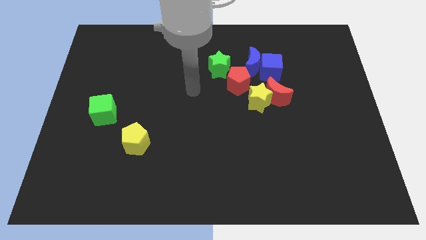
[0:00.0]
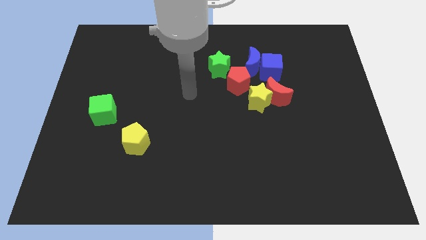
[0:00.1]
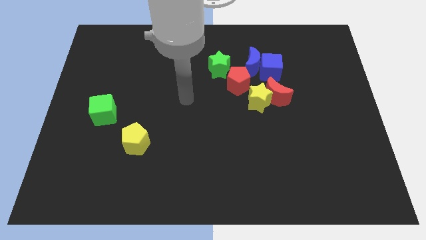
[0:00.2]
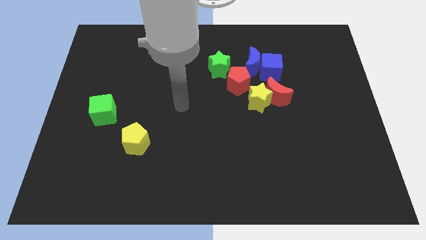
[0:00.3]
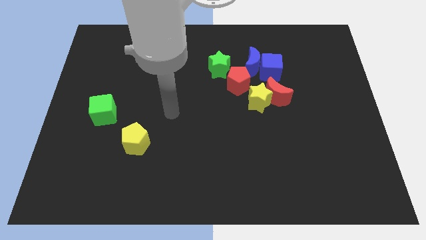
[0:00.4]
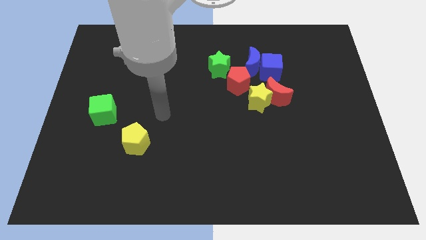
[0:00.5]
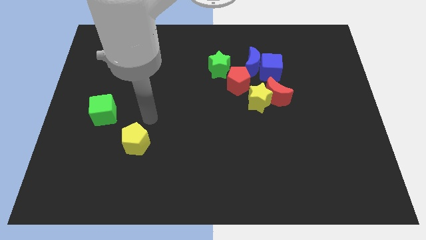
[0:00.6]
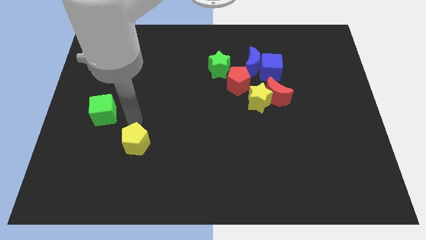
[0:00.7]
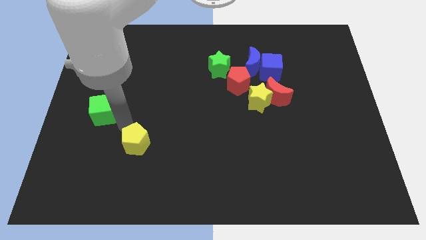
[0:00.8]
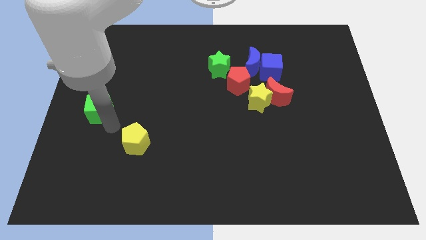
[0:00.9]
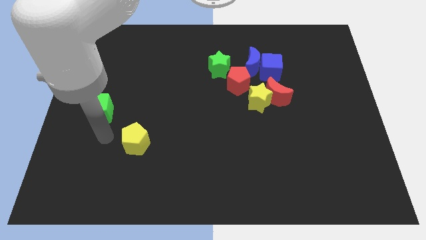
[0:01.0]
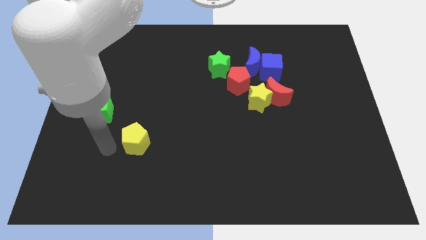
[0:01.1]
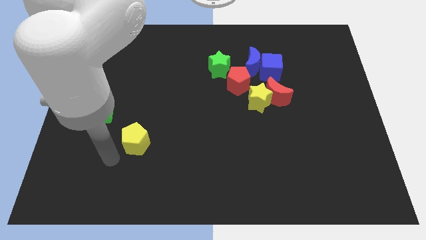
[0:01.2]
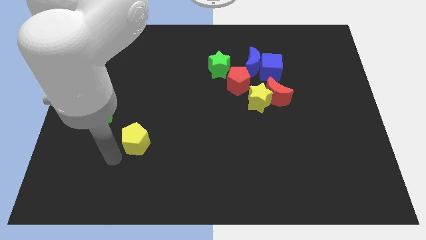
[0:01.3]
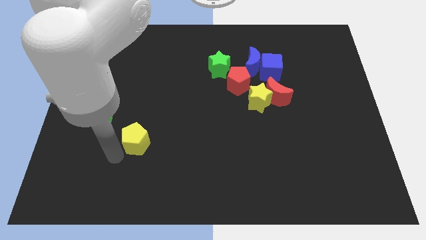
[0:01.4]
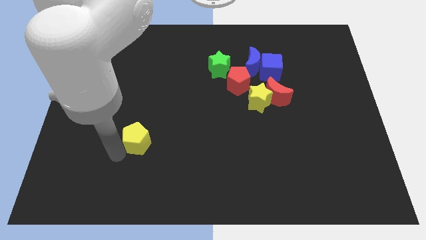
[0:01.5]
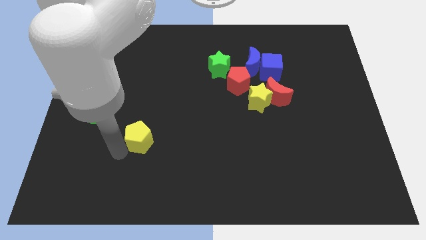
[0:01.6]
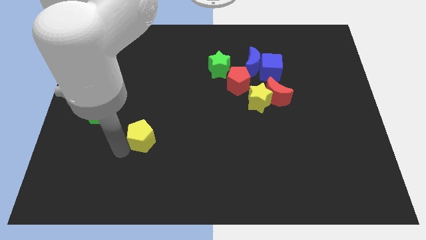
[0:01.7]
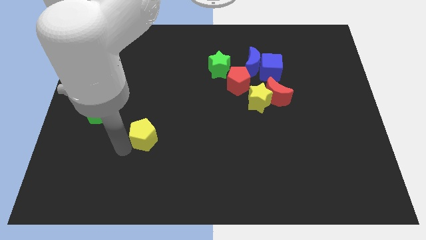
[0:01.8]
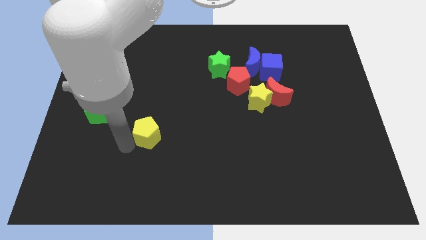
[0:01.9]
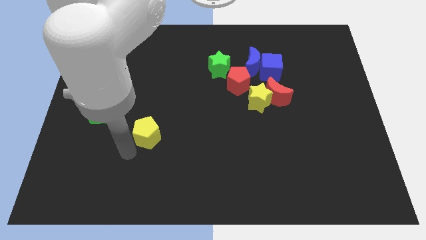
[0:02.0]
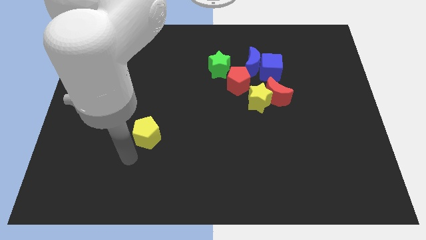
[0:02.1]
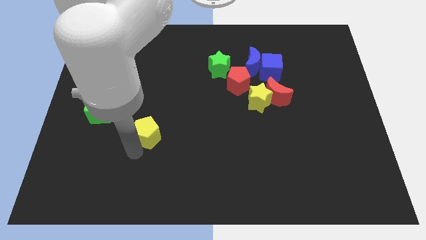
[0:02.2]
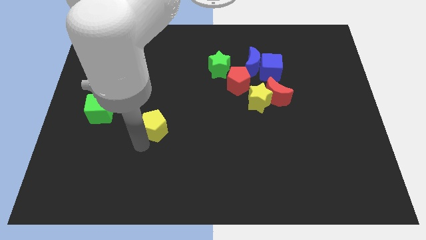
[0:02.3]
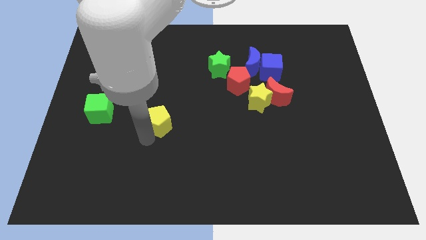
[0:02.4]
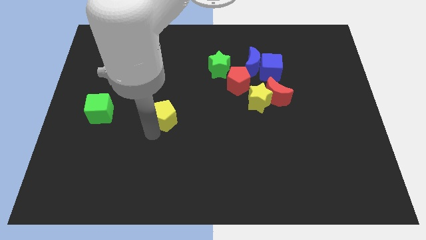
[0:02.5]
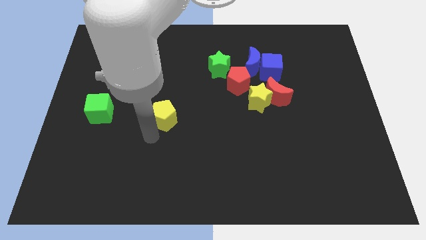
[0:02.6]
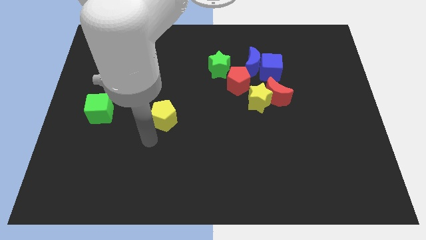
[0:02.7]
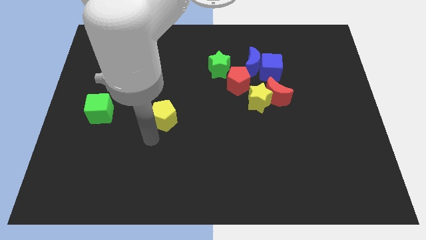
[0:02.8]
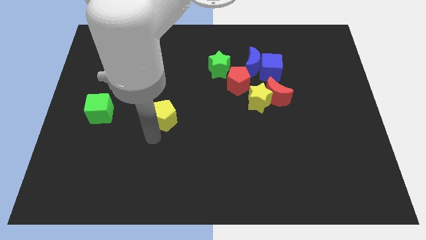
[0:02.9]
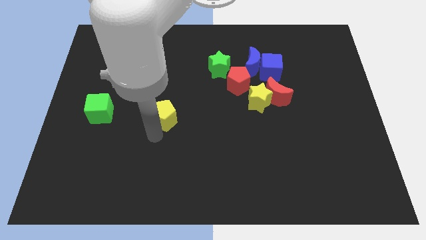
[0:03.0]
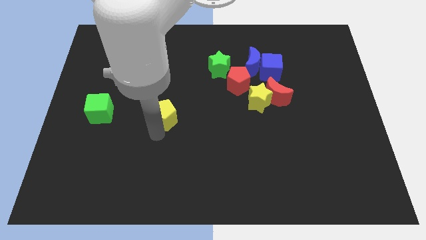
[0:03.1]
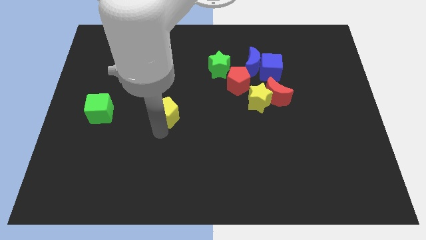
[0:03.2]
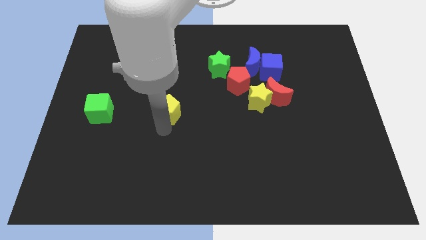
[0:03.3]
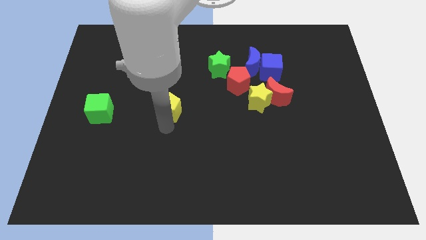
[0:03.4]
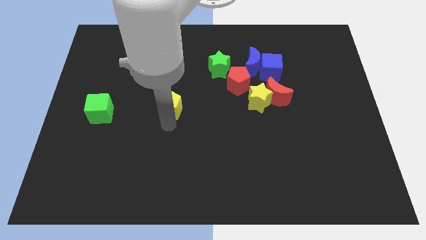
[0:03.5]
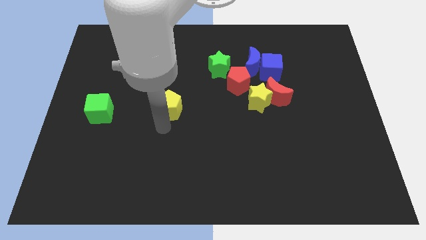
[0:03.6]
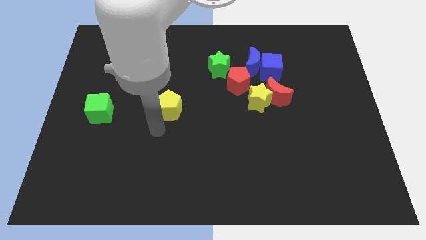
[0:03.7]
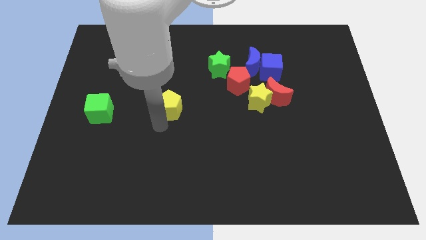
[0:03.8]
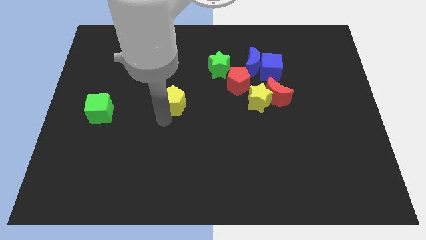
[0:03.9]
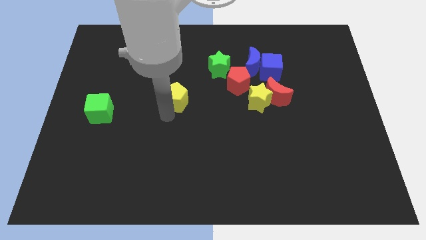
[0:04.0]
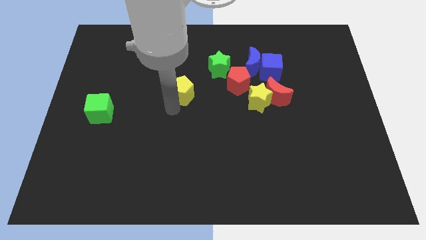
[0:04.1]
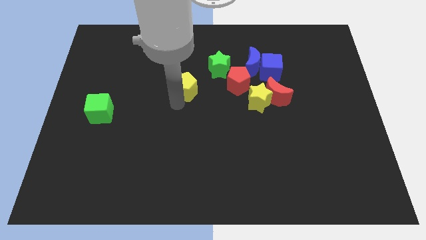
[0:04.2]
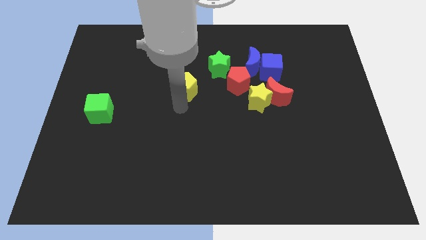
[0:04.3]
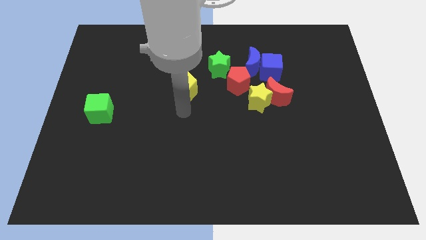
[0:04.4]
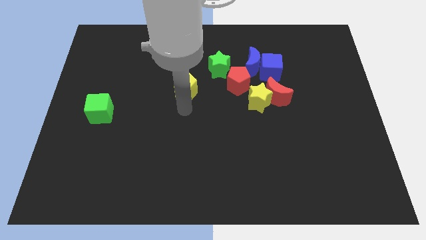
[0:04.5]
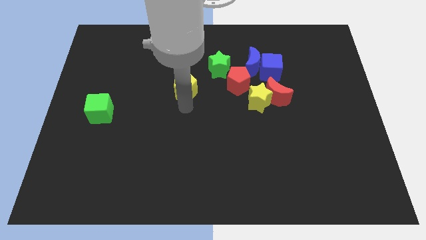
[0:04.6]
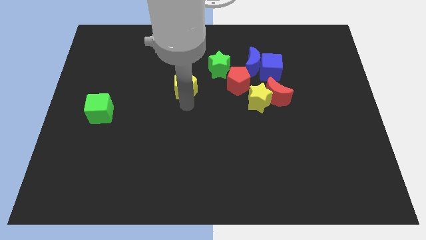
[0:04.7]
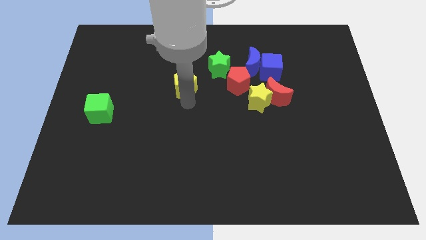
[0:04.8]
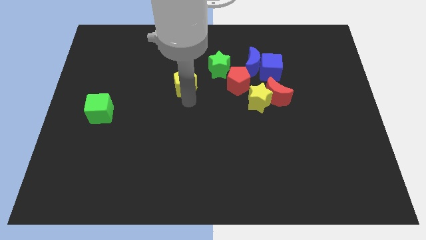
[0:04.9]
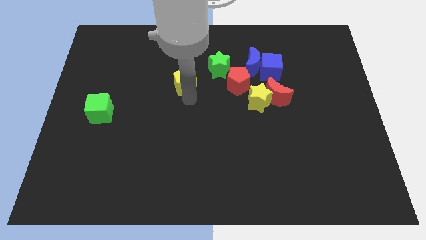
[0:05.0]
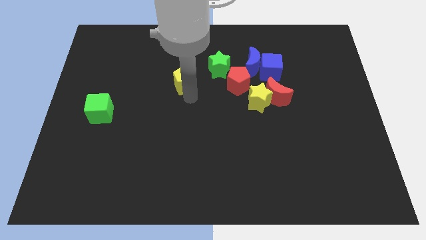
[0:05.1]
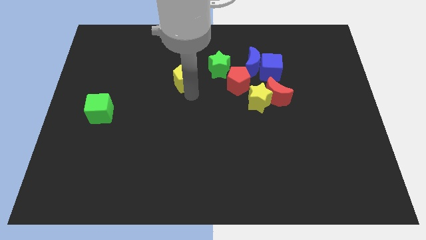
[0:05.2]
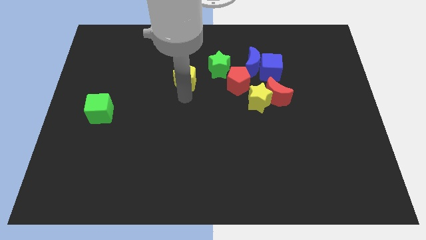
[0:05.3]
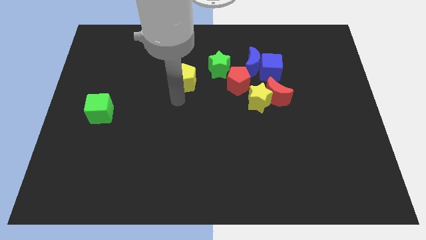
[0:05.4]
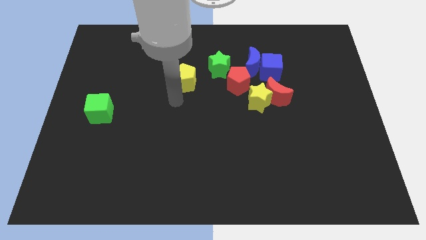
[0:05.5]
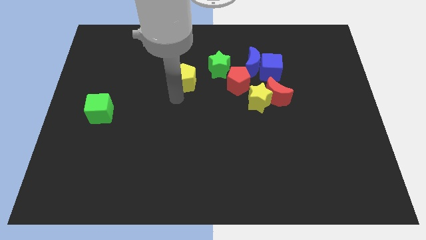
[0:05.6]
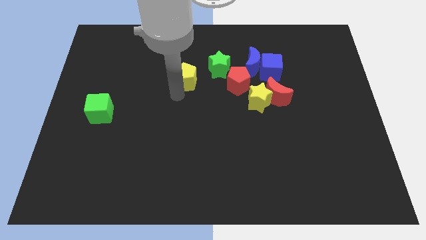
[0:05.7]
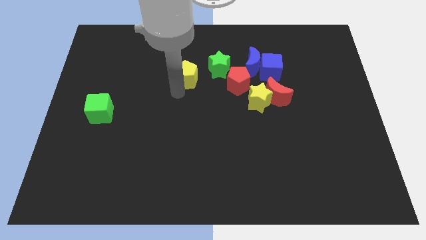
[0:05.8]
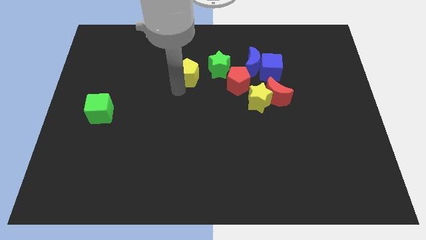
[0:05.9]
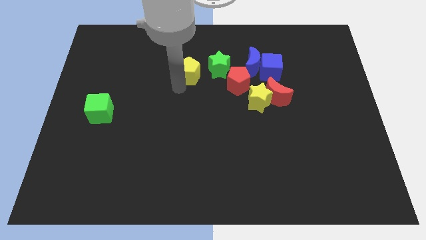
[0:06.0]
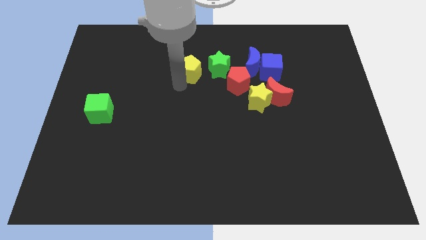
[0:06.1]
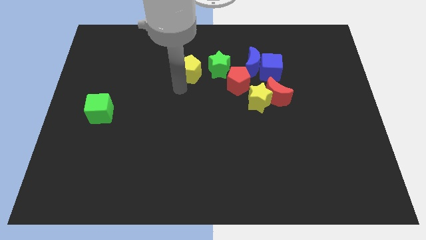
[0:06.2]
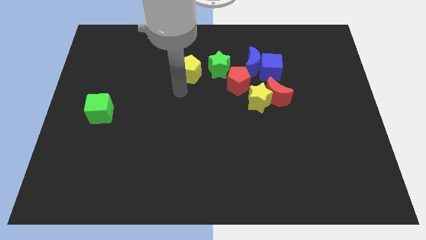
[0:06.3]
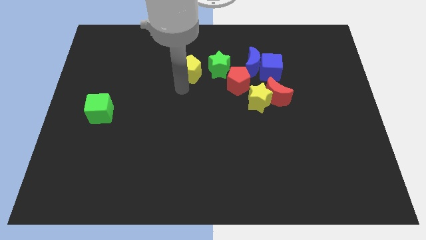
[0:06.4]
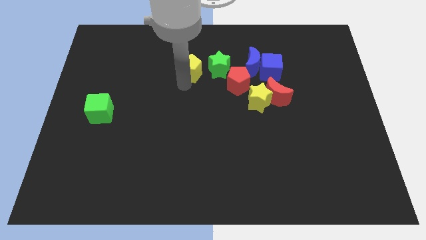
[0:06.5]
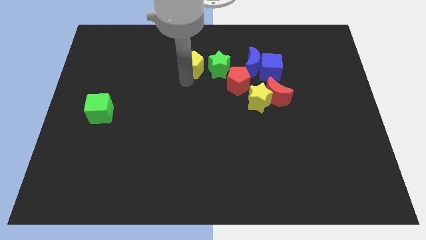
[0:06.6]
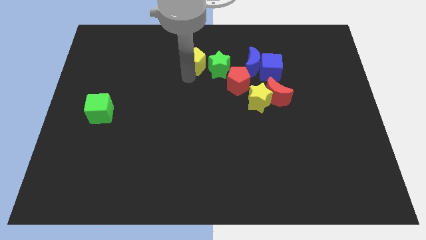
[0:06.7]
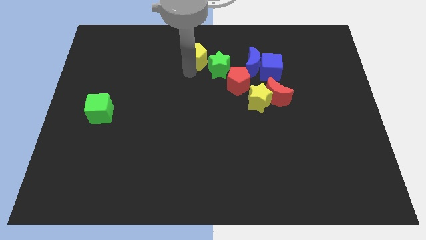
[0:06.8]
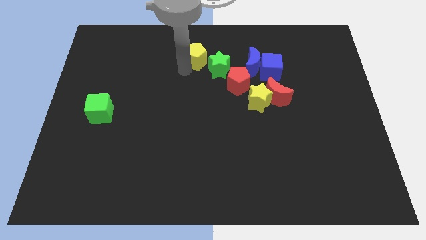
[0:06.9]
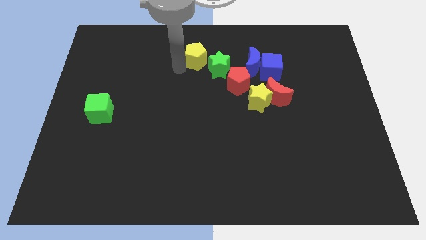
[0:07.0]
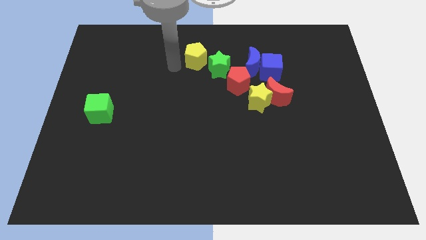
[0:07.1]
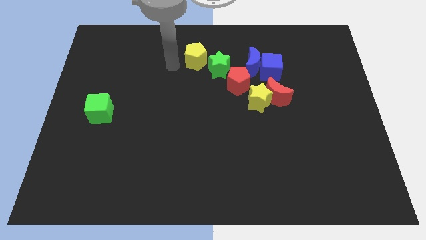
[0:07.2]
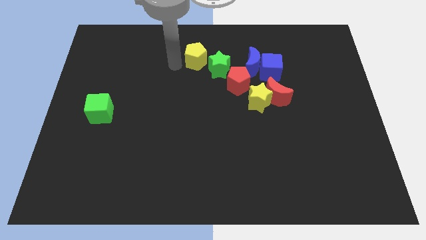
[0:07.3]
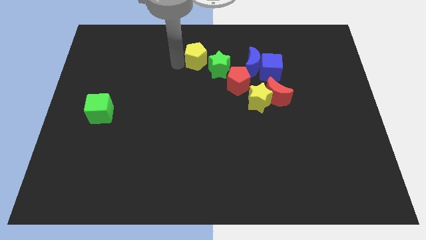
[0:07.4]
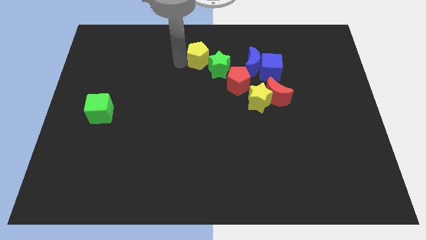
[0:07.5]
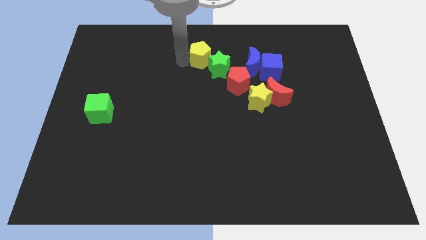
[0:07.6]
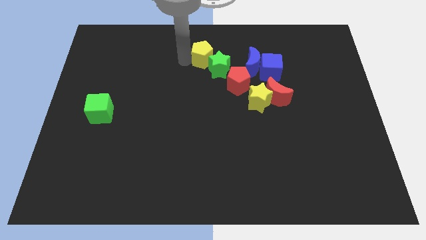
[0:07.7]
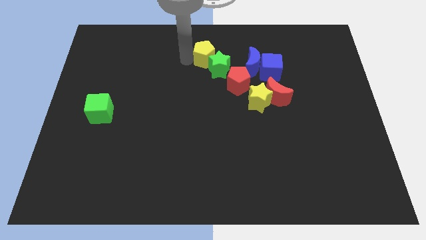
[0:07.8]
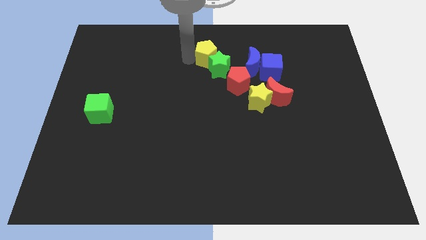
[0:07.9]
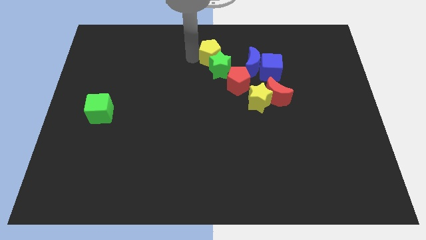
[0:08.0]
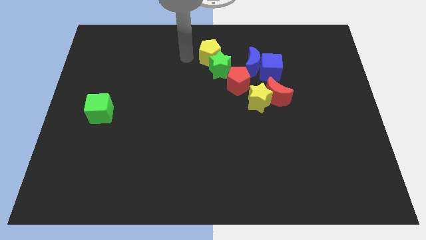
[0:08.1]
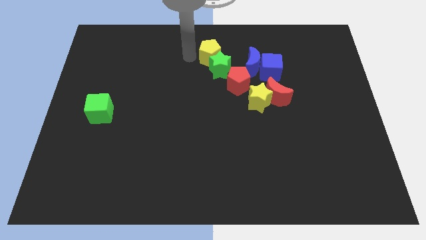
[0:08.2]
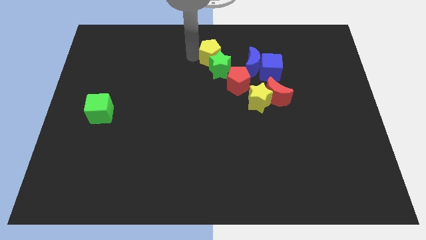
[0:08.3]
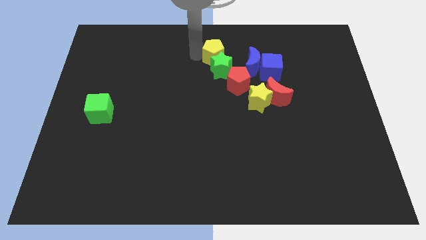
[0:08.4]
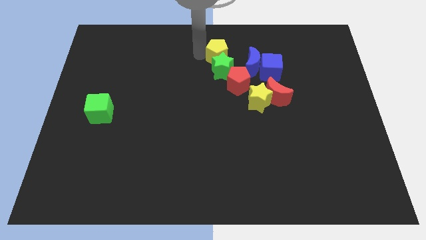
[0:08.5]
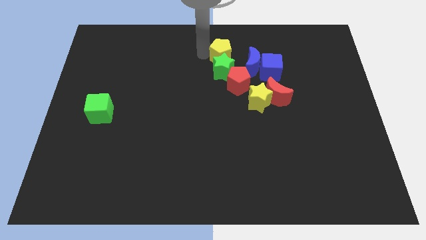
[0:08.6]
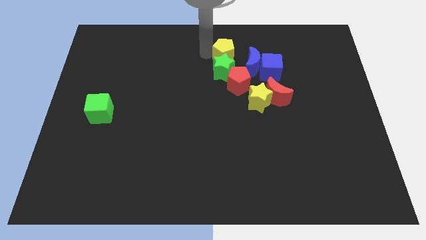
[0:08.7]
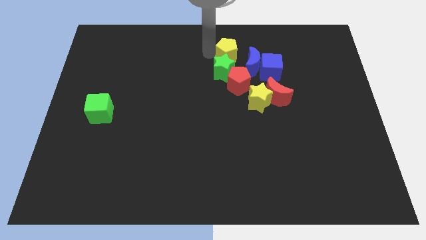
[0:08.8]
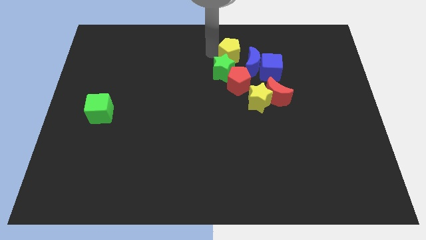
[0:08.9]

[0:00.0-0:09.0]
put the yellow pentagon to the top left side of the blue cube
